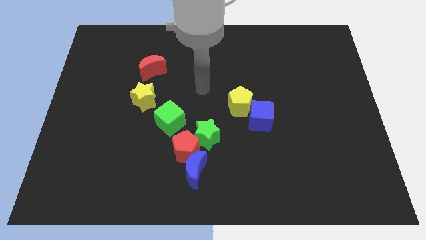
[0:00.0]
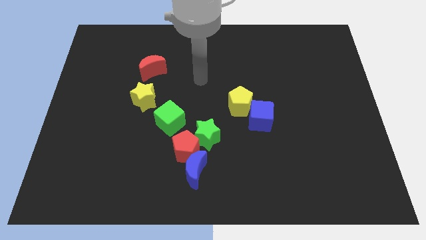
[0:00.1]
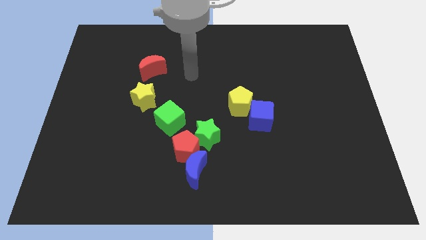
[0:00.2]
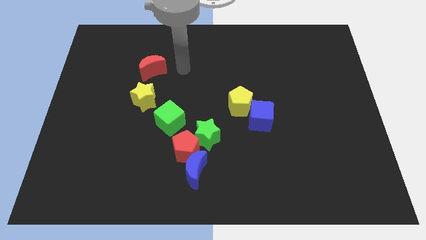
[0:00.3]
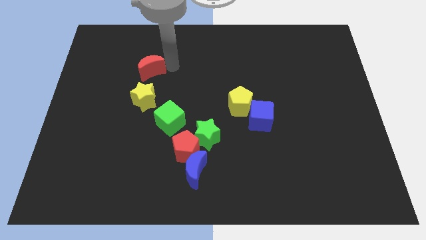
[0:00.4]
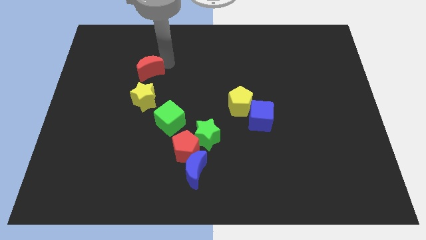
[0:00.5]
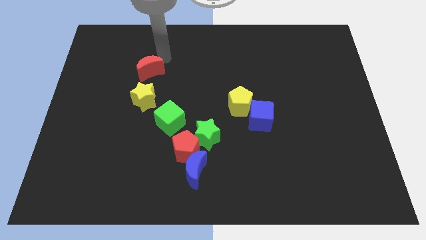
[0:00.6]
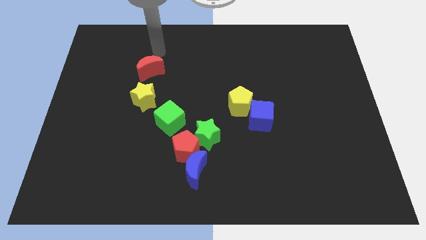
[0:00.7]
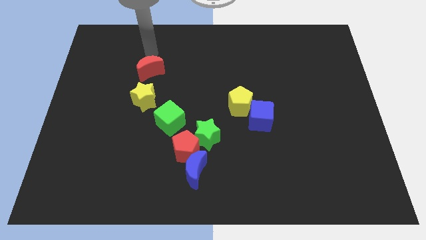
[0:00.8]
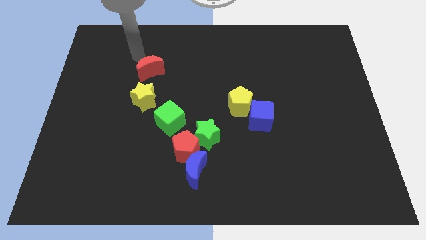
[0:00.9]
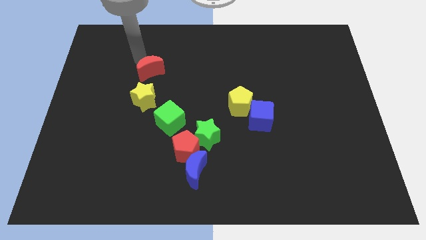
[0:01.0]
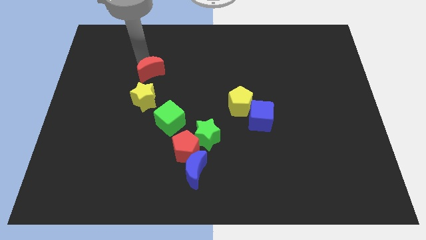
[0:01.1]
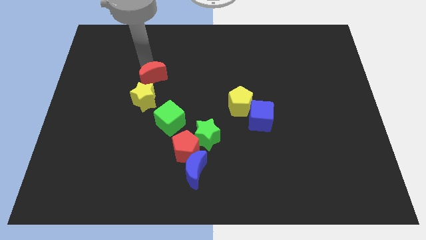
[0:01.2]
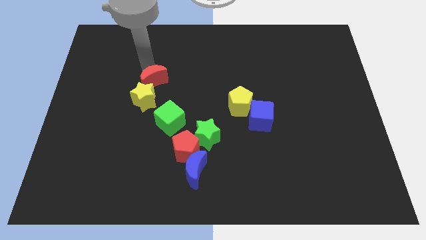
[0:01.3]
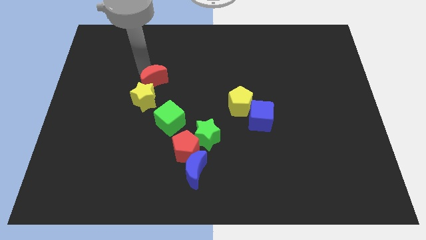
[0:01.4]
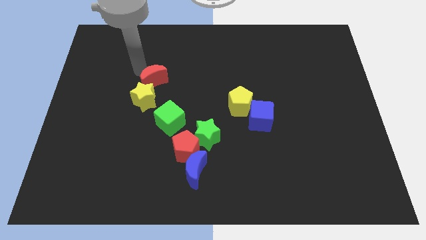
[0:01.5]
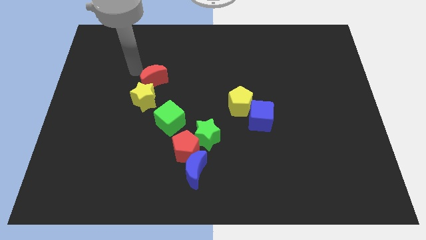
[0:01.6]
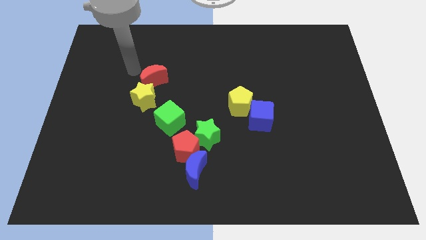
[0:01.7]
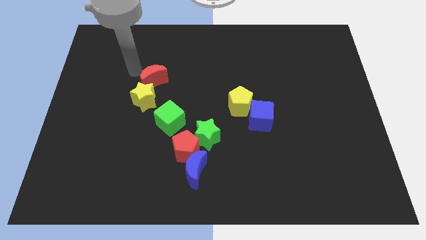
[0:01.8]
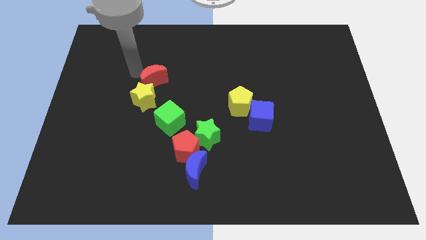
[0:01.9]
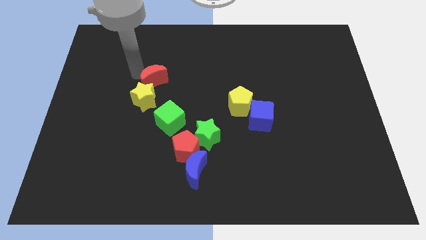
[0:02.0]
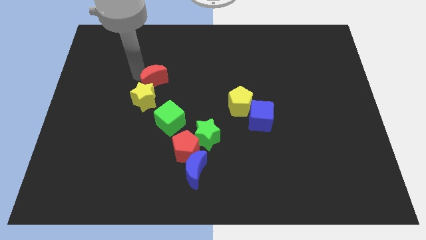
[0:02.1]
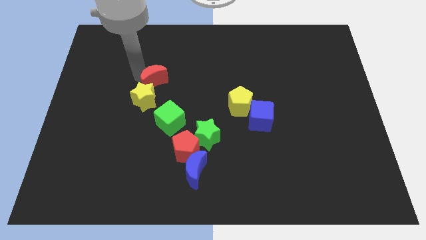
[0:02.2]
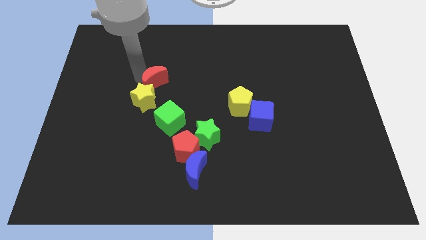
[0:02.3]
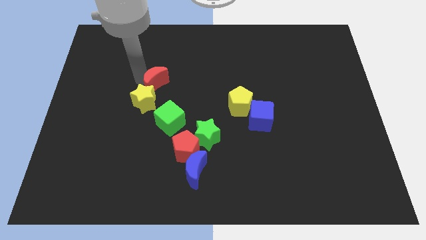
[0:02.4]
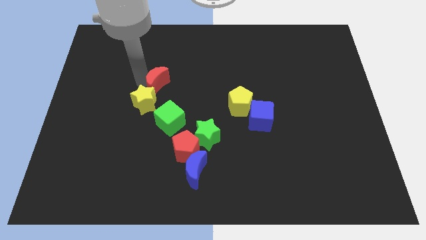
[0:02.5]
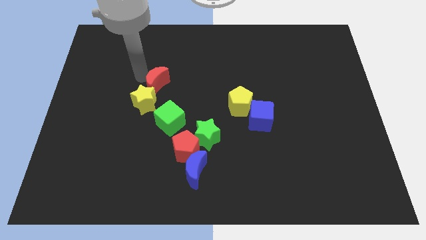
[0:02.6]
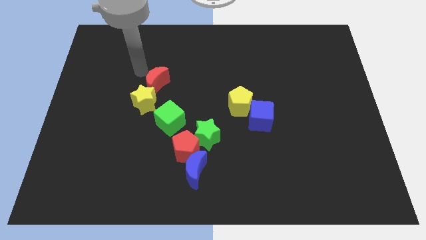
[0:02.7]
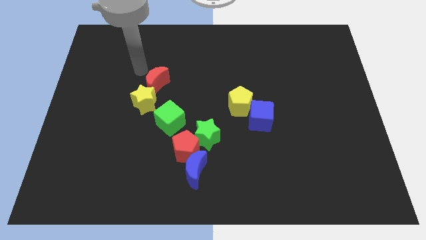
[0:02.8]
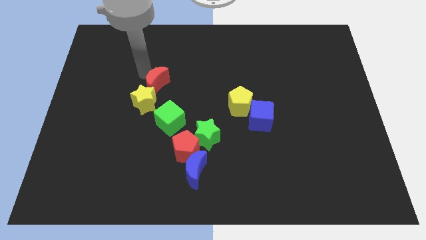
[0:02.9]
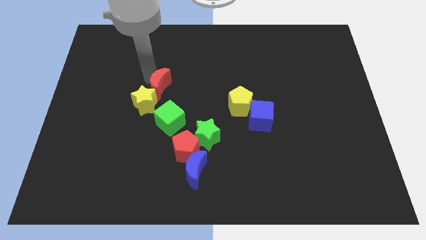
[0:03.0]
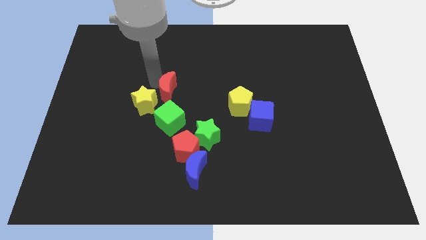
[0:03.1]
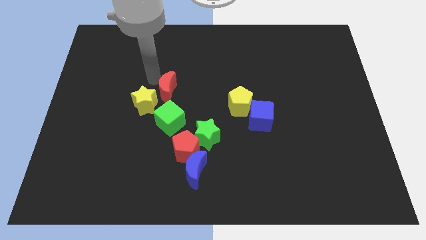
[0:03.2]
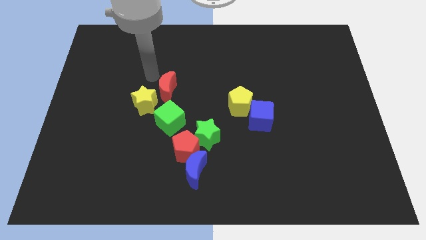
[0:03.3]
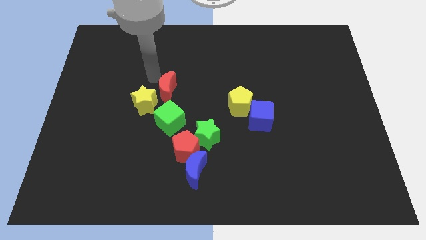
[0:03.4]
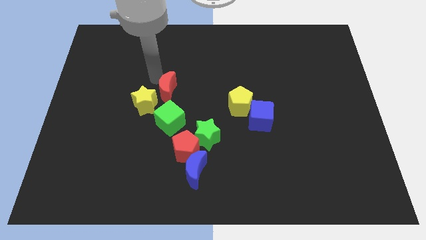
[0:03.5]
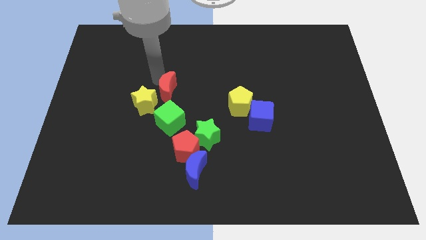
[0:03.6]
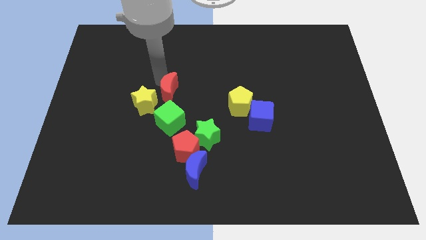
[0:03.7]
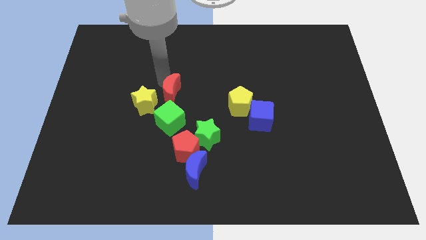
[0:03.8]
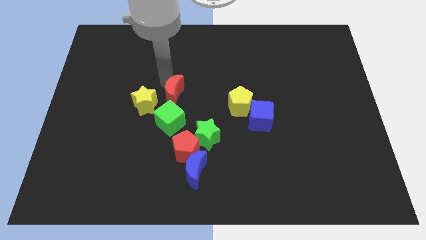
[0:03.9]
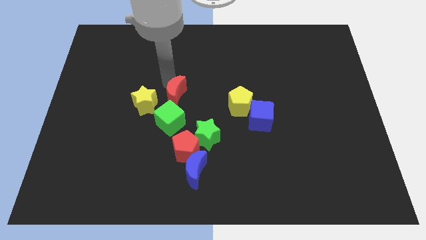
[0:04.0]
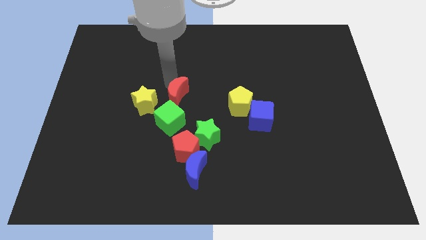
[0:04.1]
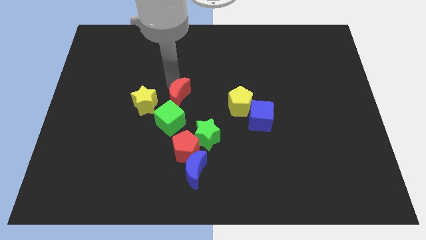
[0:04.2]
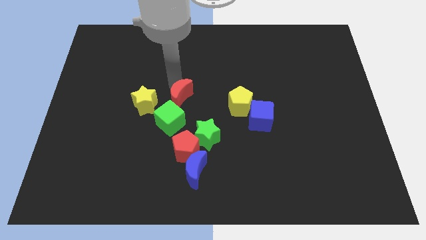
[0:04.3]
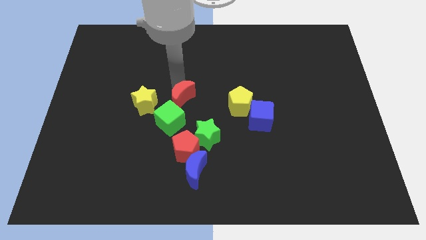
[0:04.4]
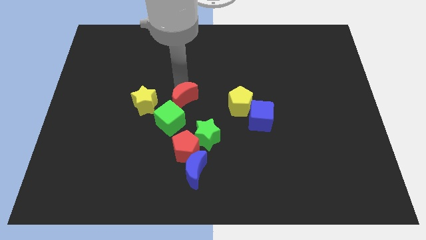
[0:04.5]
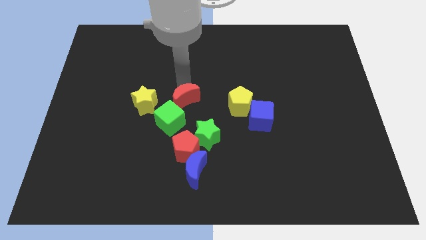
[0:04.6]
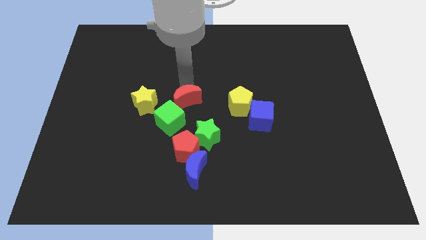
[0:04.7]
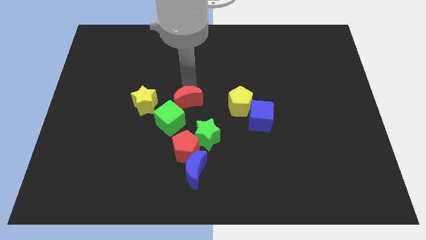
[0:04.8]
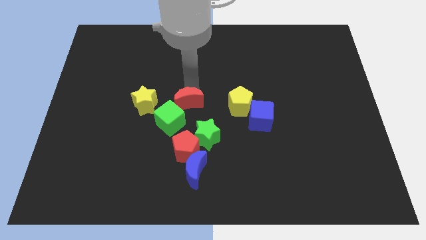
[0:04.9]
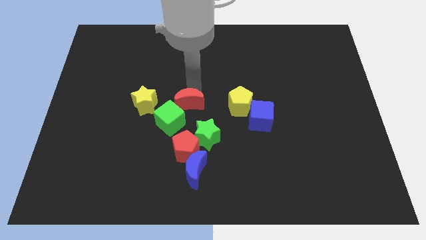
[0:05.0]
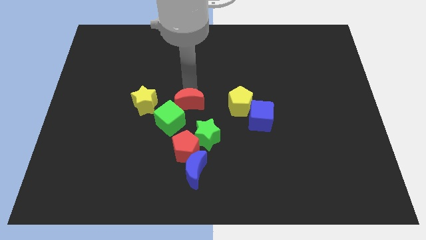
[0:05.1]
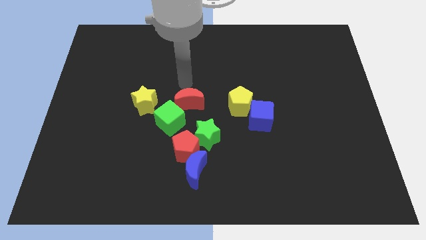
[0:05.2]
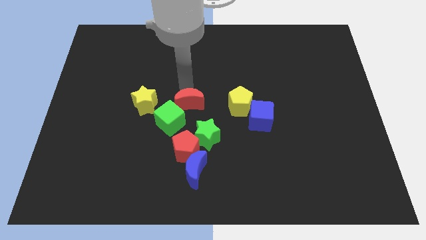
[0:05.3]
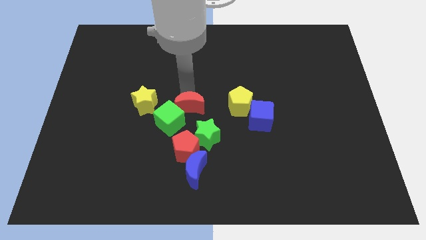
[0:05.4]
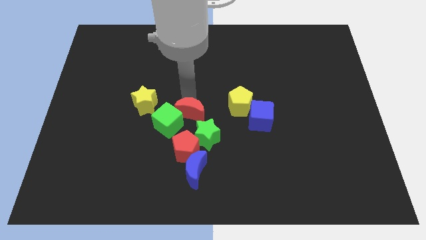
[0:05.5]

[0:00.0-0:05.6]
move the red moon to the top side of the blue moon

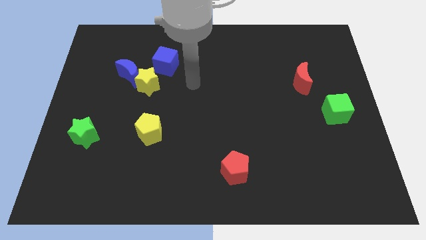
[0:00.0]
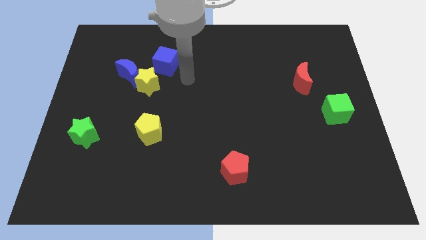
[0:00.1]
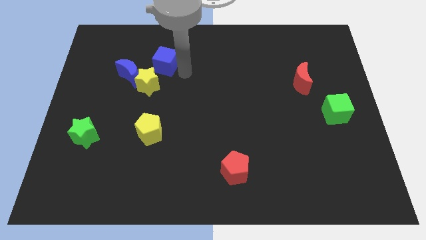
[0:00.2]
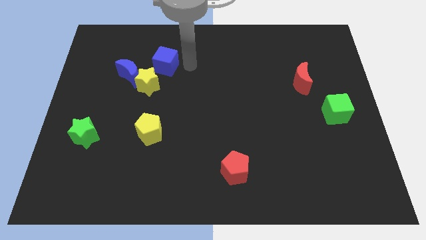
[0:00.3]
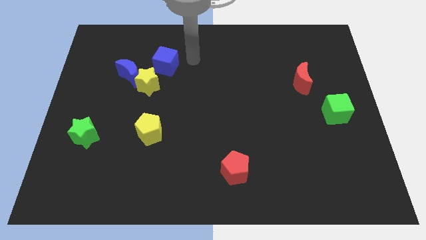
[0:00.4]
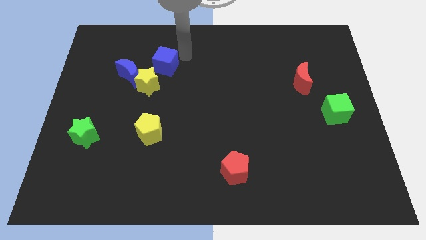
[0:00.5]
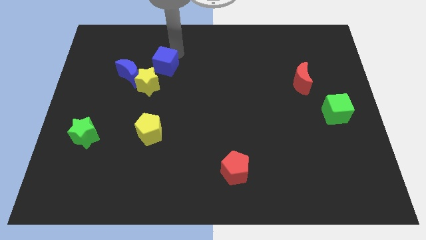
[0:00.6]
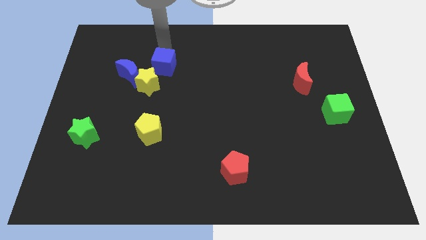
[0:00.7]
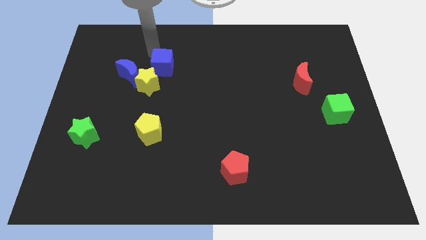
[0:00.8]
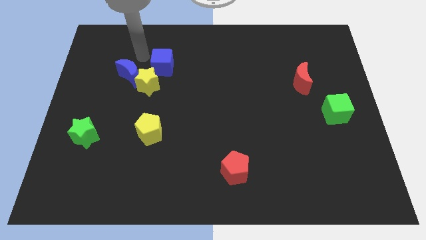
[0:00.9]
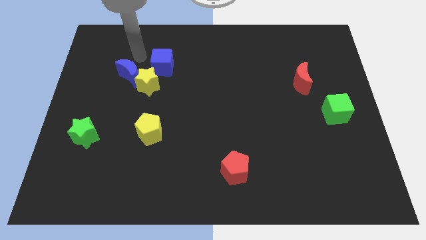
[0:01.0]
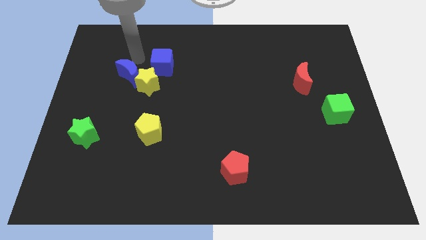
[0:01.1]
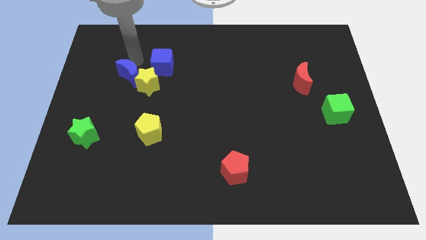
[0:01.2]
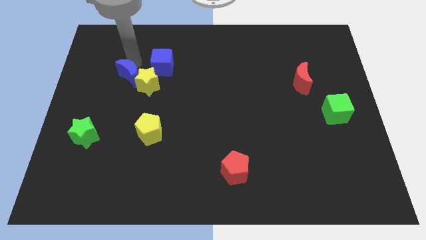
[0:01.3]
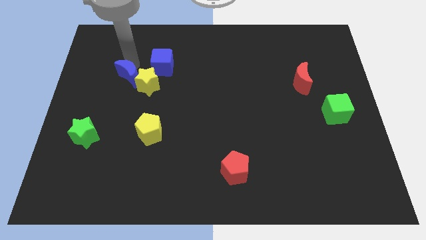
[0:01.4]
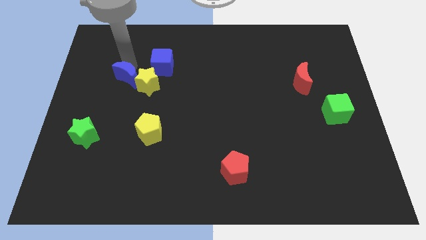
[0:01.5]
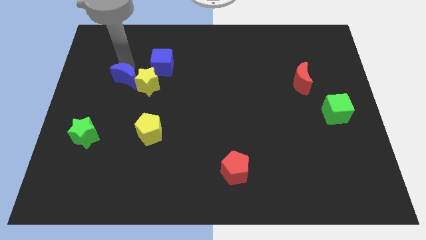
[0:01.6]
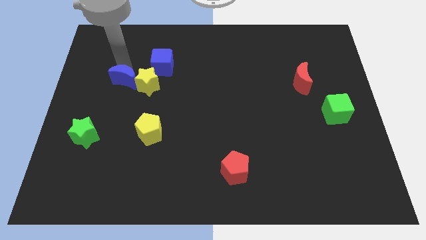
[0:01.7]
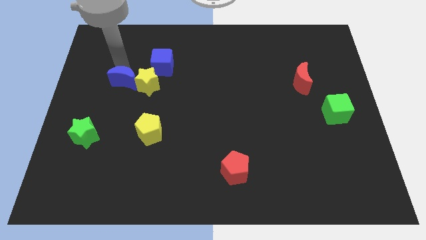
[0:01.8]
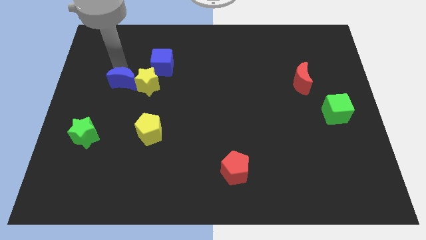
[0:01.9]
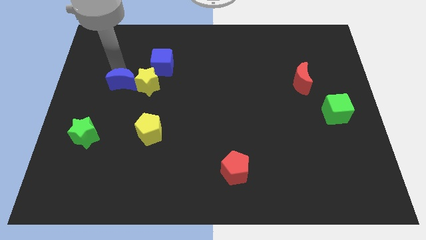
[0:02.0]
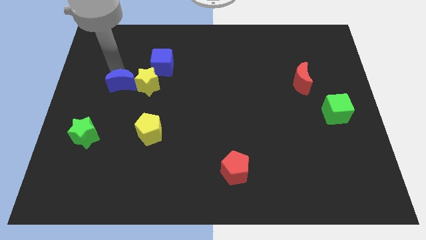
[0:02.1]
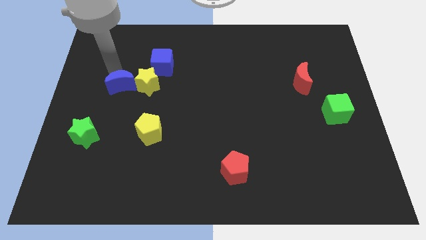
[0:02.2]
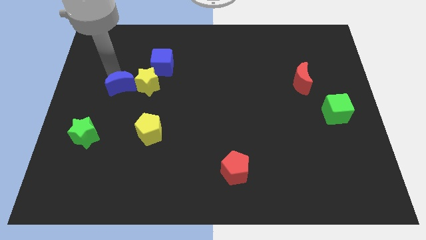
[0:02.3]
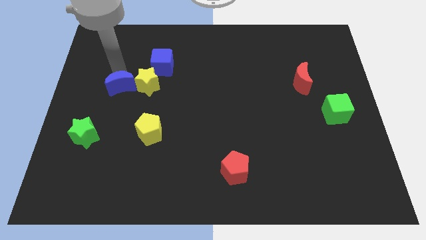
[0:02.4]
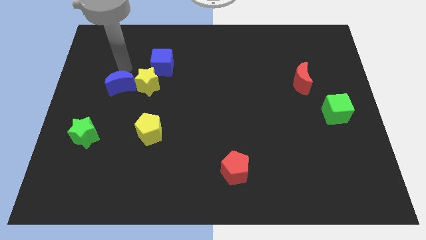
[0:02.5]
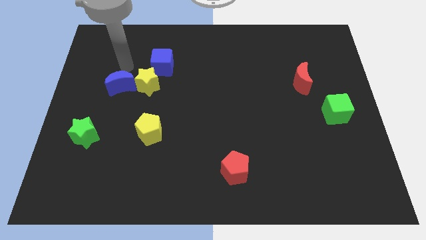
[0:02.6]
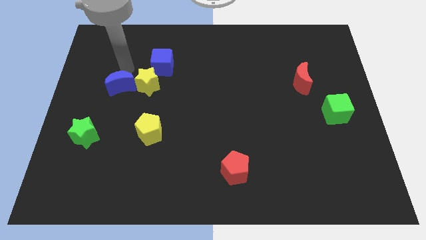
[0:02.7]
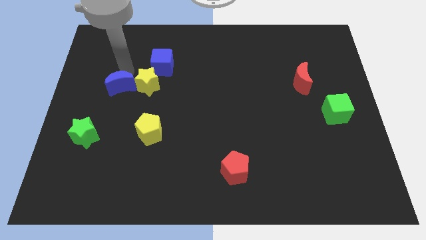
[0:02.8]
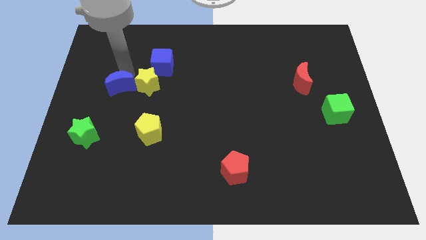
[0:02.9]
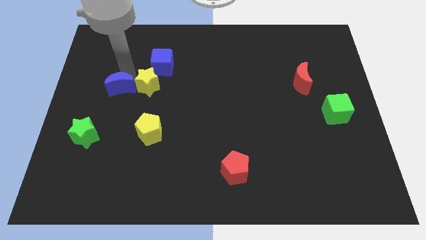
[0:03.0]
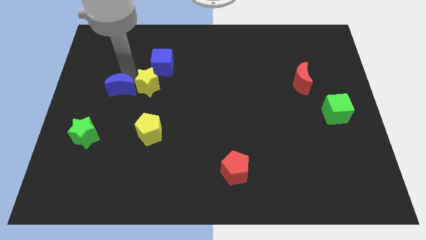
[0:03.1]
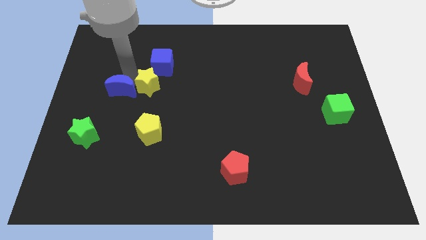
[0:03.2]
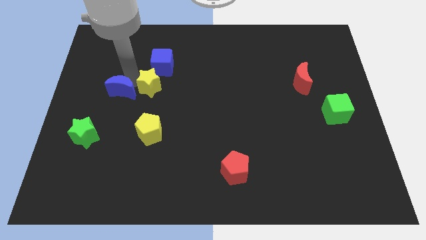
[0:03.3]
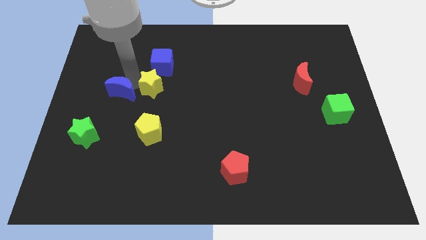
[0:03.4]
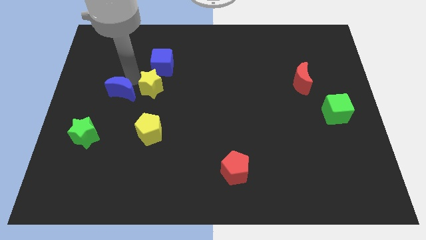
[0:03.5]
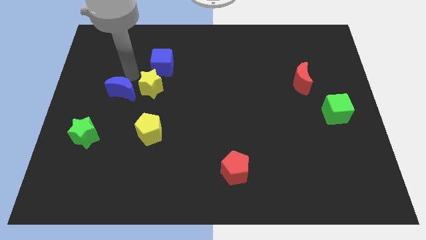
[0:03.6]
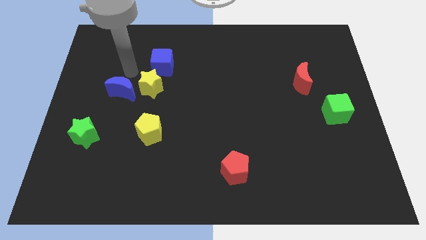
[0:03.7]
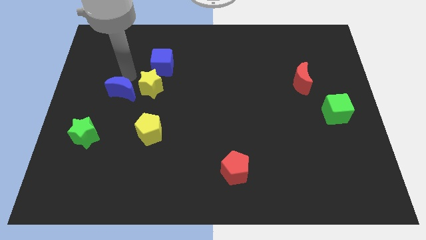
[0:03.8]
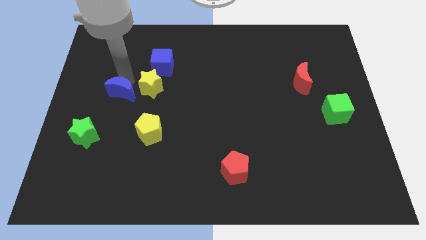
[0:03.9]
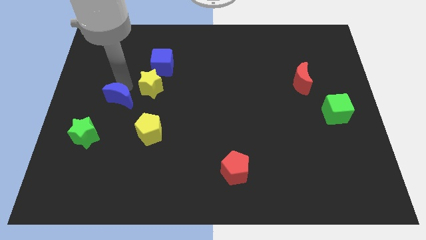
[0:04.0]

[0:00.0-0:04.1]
push the blue moon to the top right side of the green star
